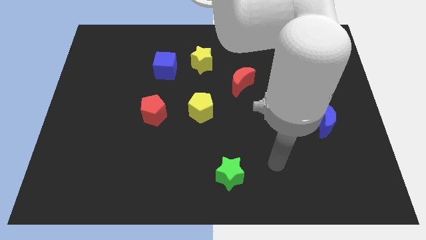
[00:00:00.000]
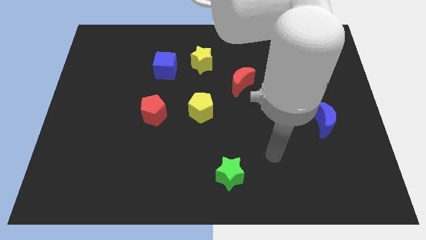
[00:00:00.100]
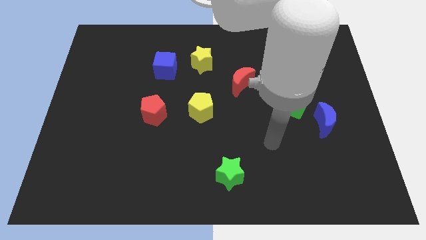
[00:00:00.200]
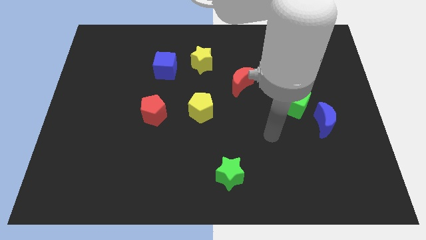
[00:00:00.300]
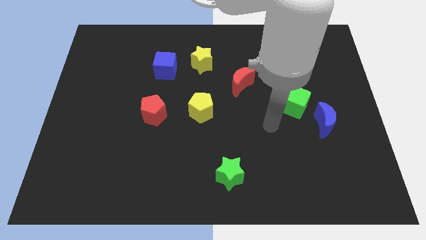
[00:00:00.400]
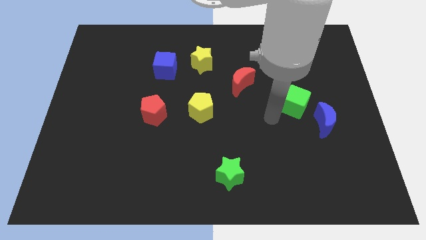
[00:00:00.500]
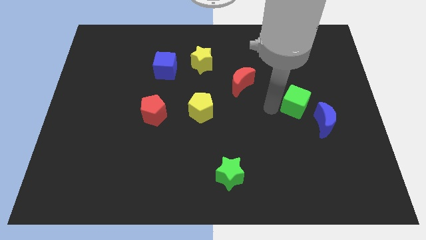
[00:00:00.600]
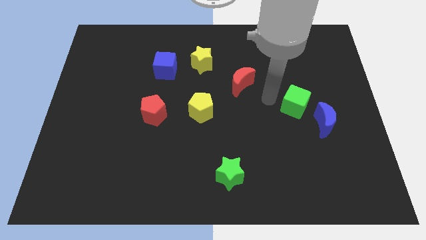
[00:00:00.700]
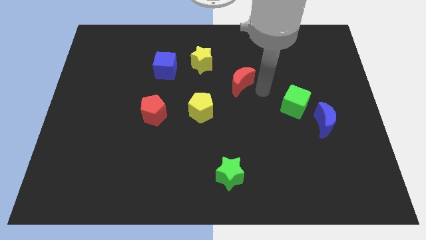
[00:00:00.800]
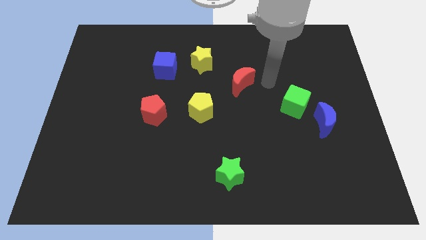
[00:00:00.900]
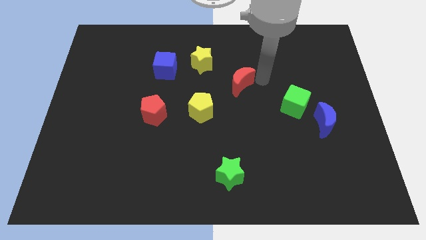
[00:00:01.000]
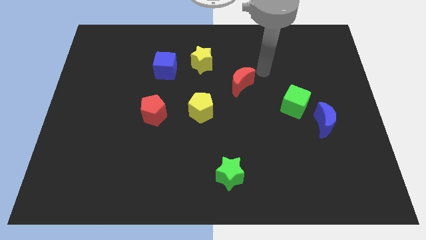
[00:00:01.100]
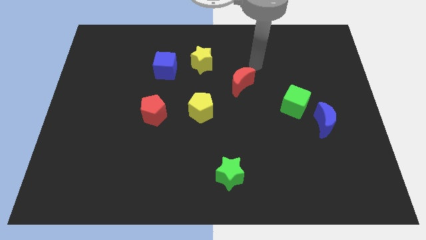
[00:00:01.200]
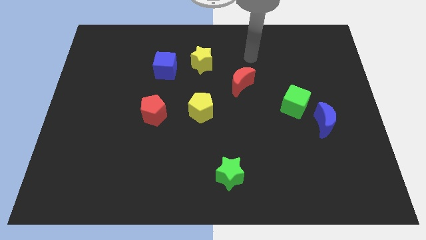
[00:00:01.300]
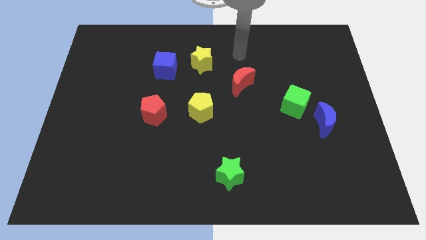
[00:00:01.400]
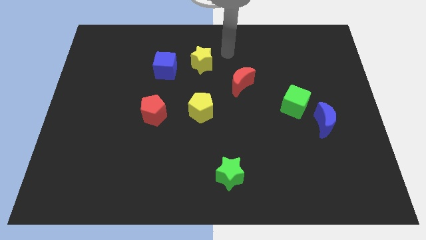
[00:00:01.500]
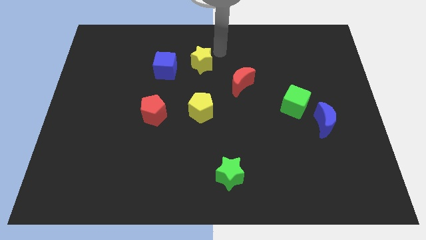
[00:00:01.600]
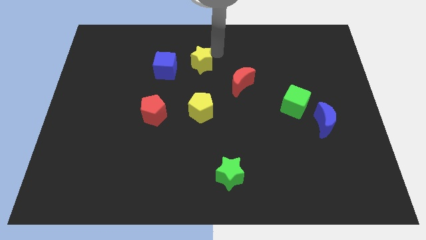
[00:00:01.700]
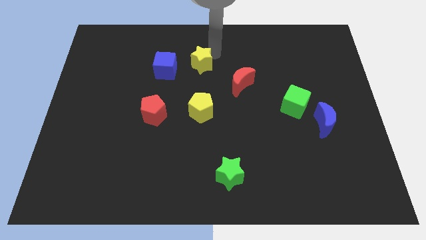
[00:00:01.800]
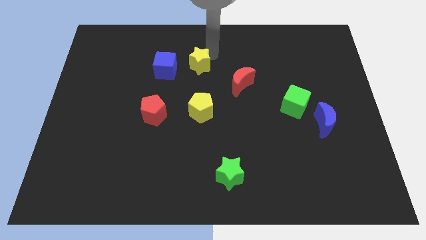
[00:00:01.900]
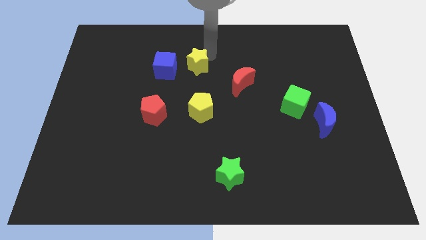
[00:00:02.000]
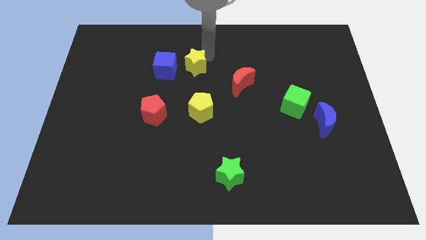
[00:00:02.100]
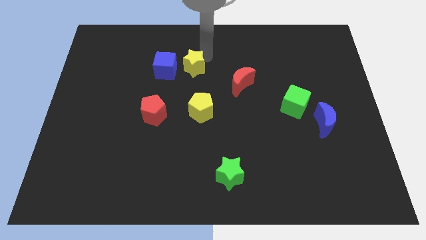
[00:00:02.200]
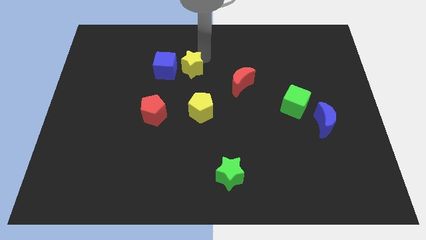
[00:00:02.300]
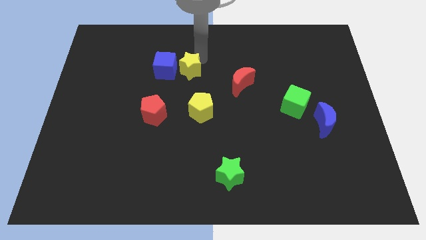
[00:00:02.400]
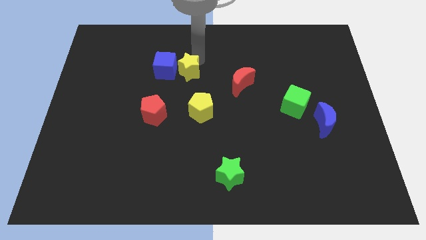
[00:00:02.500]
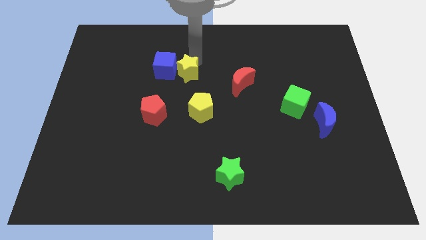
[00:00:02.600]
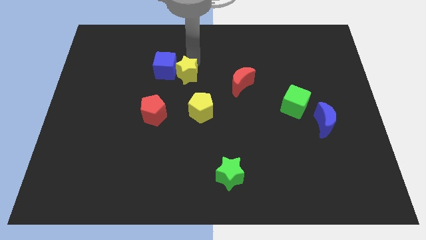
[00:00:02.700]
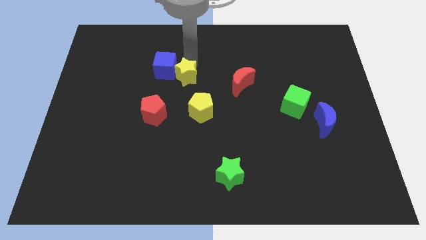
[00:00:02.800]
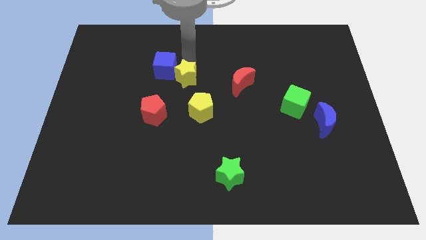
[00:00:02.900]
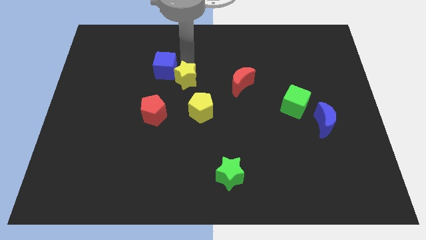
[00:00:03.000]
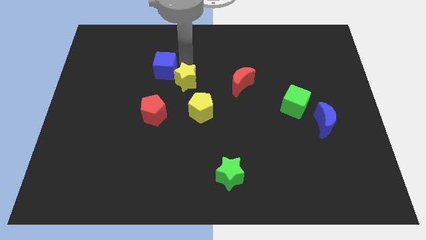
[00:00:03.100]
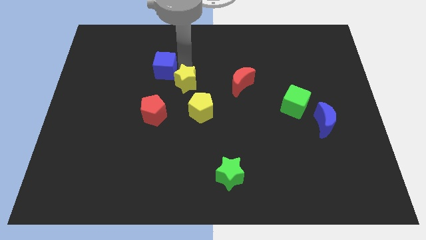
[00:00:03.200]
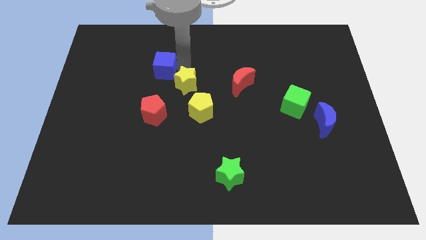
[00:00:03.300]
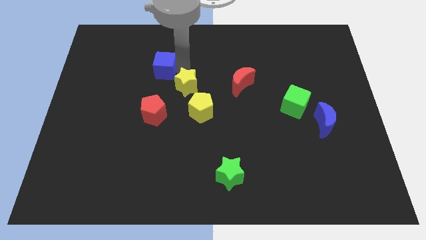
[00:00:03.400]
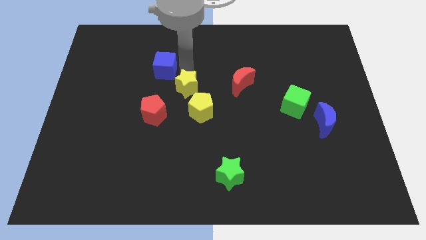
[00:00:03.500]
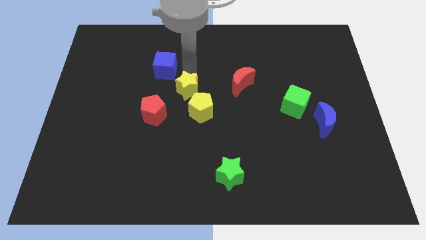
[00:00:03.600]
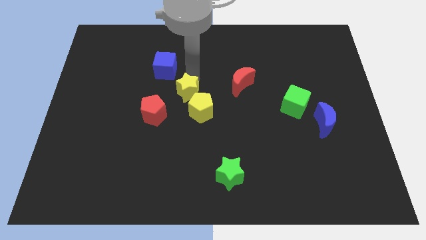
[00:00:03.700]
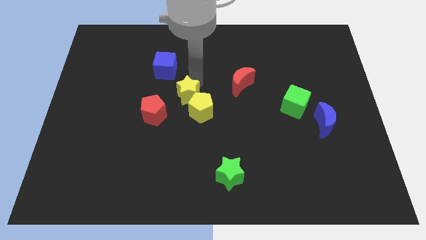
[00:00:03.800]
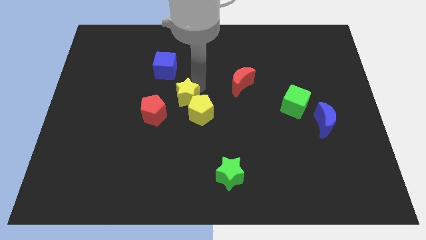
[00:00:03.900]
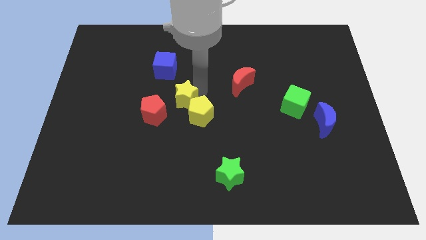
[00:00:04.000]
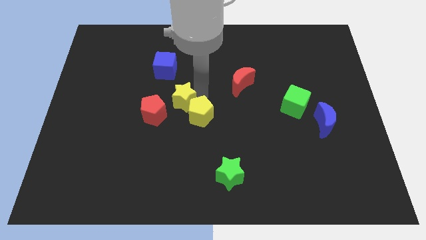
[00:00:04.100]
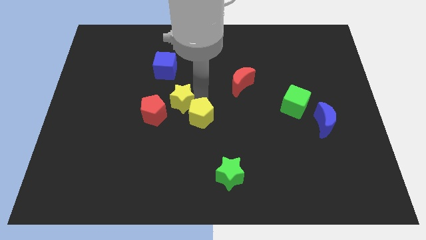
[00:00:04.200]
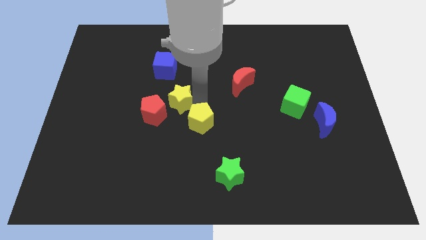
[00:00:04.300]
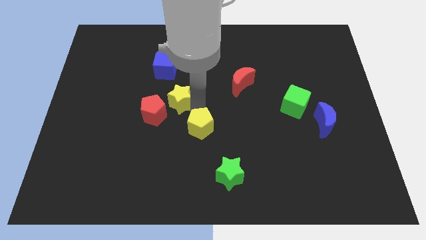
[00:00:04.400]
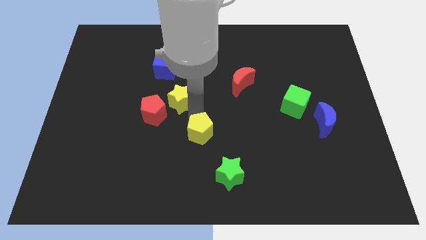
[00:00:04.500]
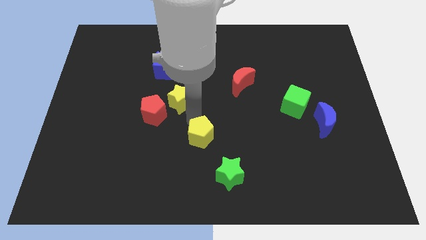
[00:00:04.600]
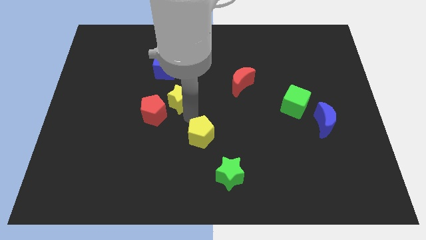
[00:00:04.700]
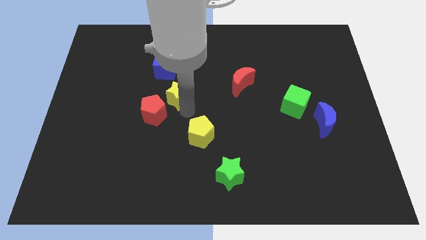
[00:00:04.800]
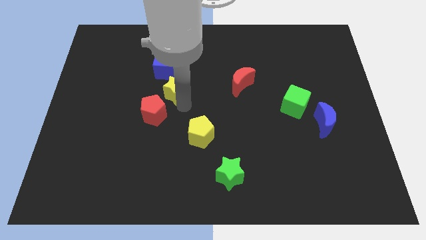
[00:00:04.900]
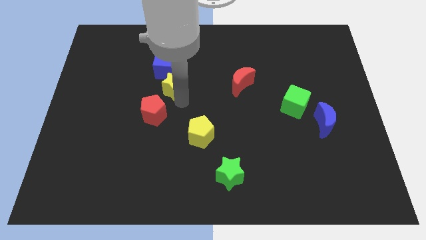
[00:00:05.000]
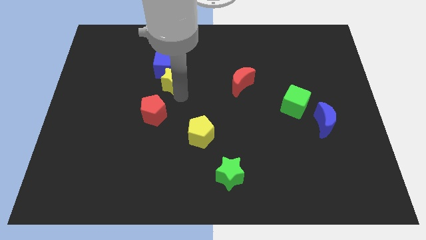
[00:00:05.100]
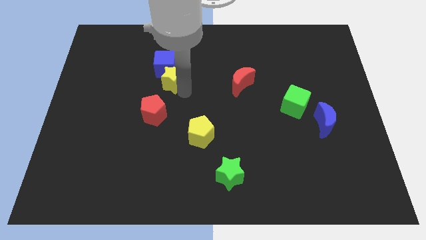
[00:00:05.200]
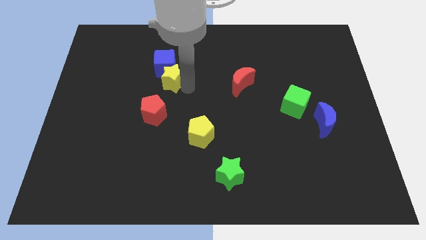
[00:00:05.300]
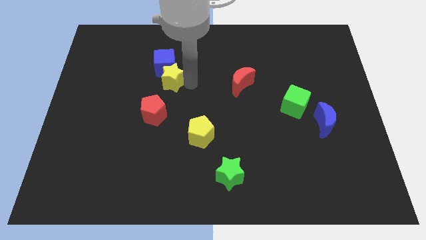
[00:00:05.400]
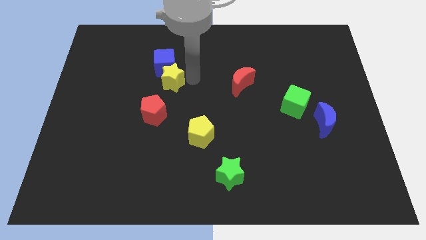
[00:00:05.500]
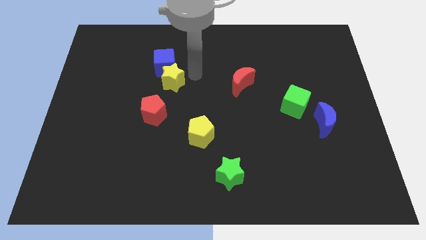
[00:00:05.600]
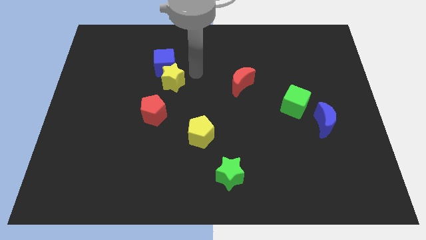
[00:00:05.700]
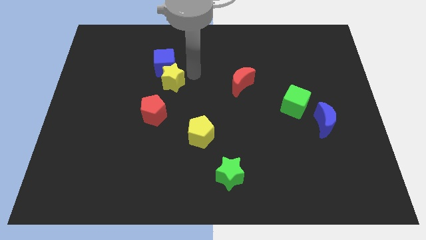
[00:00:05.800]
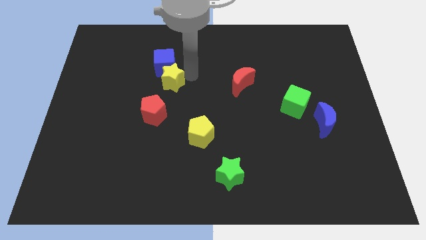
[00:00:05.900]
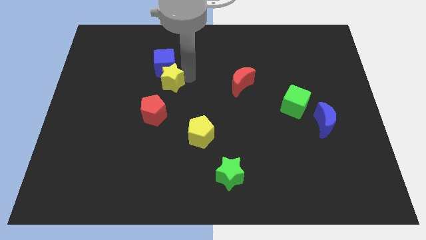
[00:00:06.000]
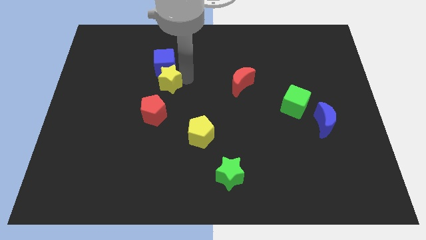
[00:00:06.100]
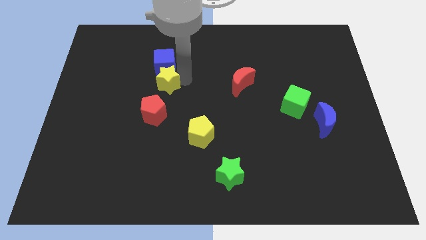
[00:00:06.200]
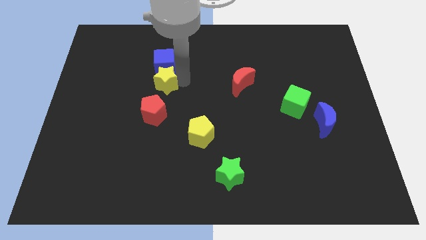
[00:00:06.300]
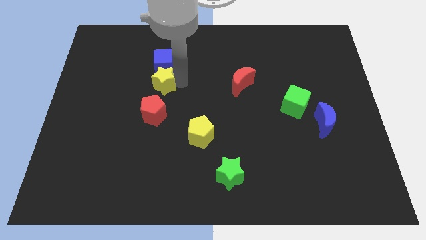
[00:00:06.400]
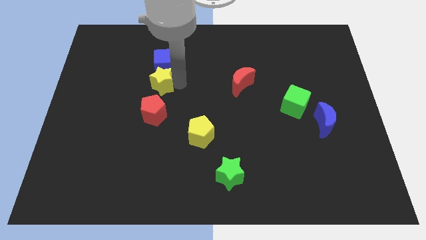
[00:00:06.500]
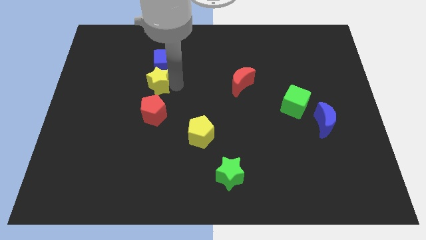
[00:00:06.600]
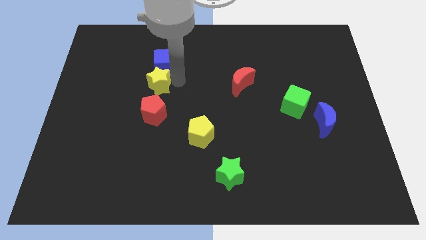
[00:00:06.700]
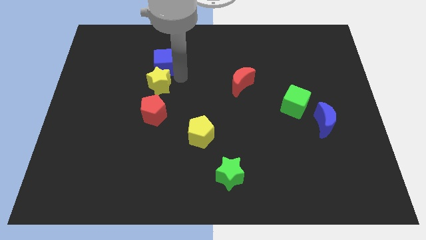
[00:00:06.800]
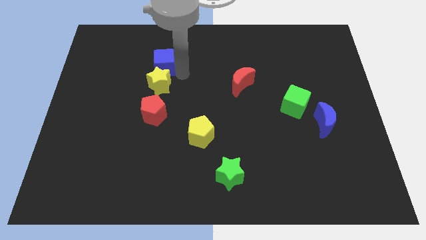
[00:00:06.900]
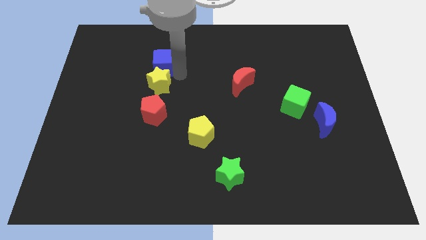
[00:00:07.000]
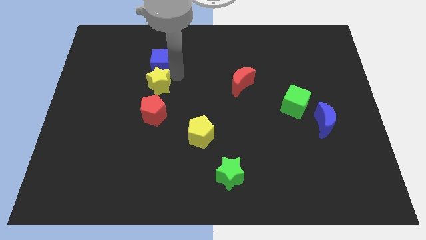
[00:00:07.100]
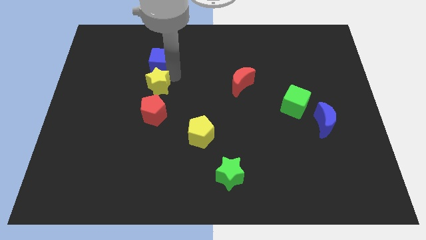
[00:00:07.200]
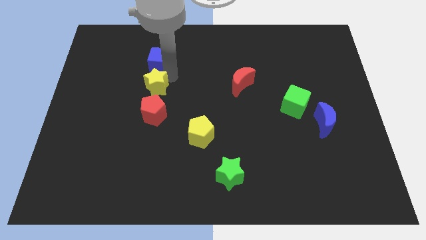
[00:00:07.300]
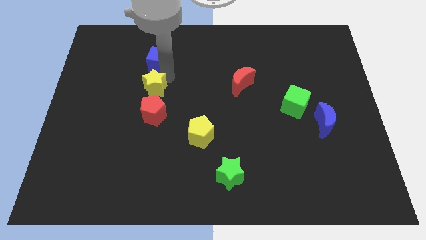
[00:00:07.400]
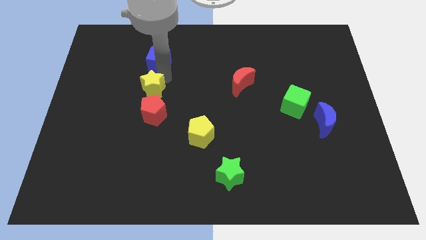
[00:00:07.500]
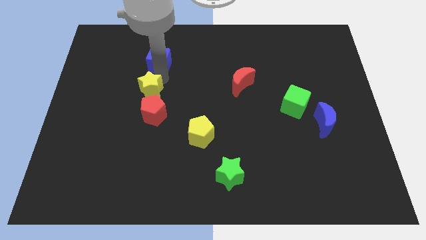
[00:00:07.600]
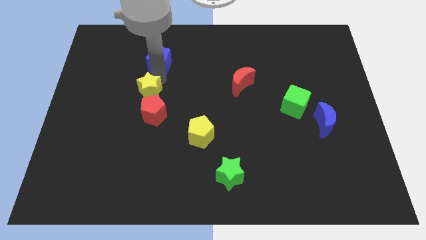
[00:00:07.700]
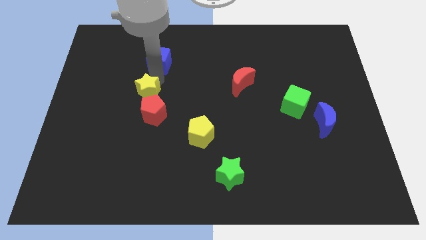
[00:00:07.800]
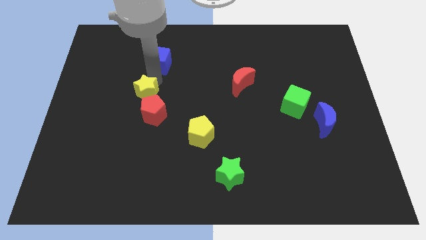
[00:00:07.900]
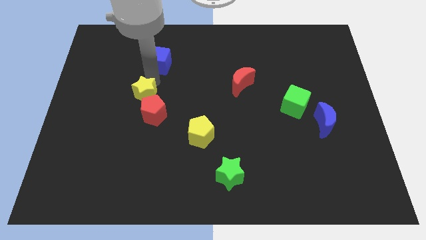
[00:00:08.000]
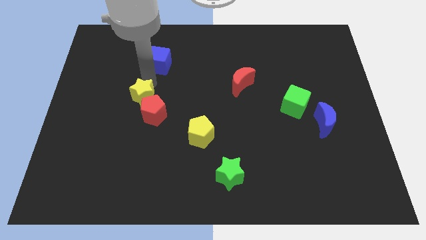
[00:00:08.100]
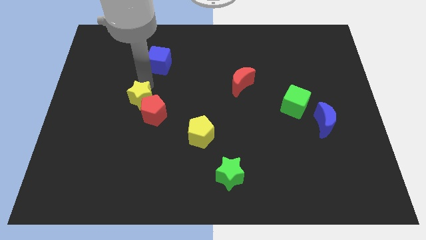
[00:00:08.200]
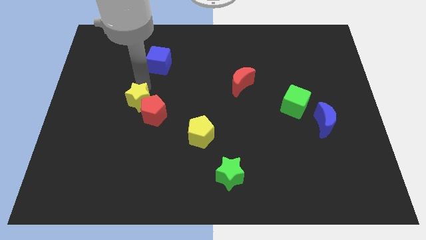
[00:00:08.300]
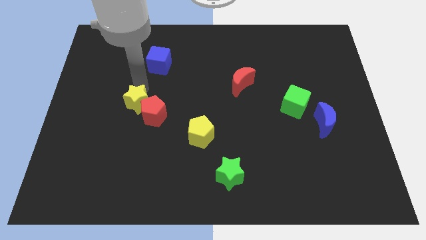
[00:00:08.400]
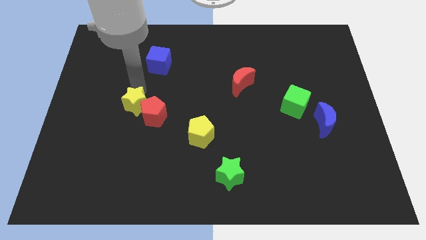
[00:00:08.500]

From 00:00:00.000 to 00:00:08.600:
slide the yellow star downwards and then left
